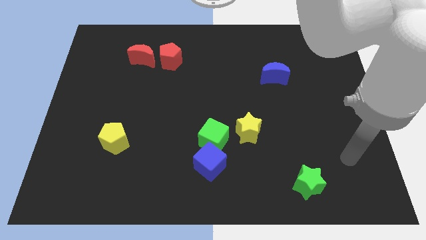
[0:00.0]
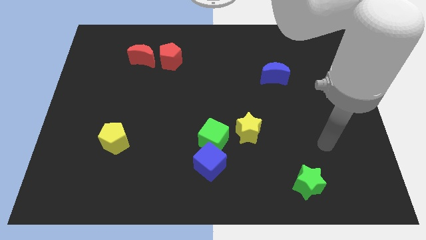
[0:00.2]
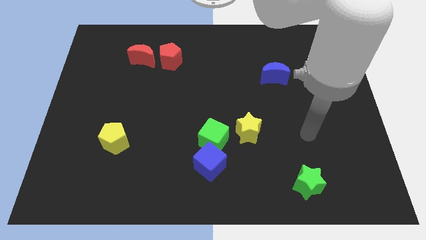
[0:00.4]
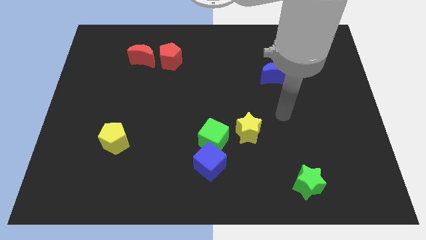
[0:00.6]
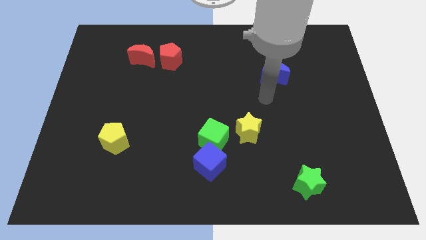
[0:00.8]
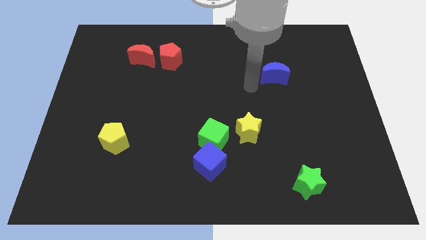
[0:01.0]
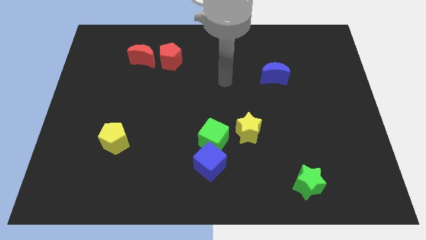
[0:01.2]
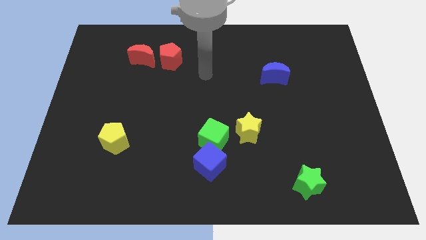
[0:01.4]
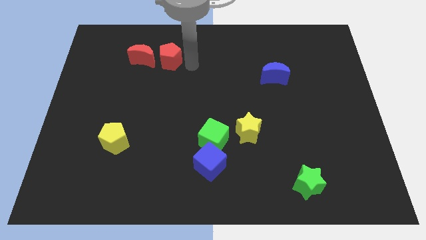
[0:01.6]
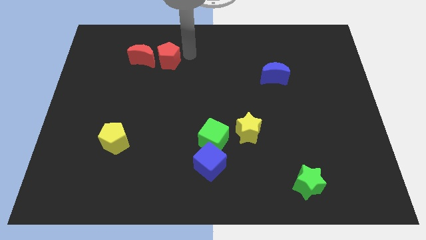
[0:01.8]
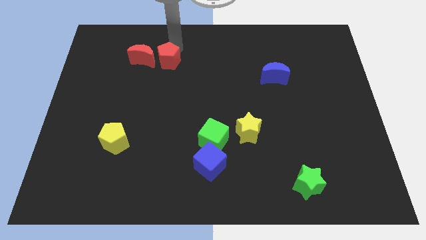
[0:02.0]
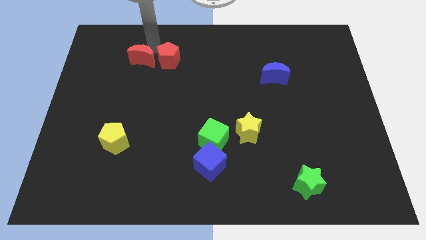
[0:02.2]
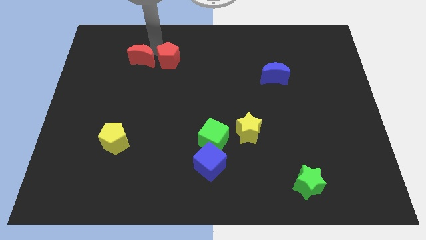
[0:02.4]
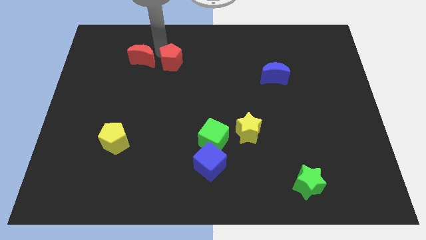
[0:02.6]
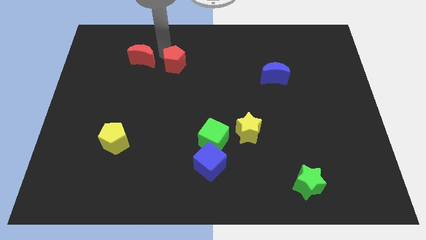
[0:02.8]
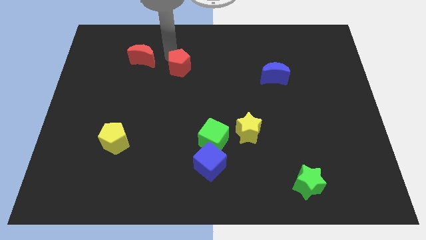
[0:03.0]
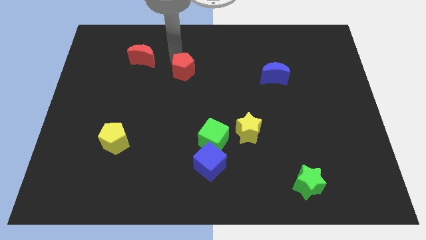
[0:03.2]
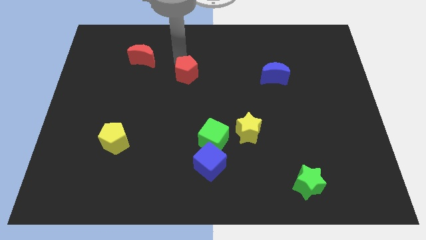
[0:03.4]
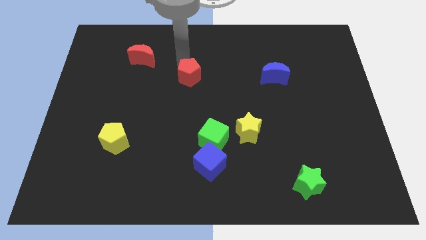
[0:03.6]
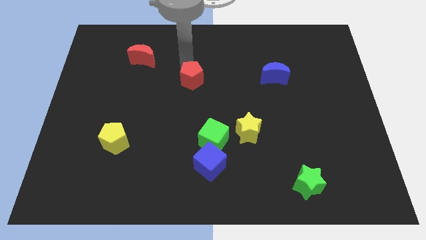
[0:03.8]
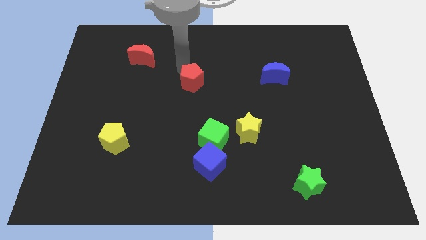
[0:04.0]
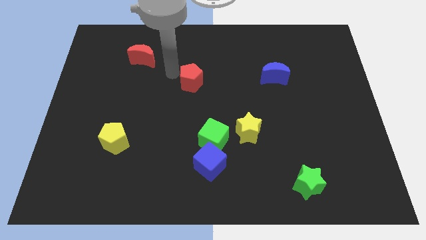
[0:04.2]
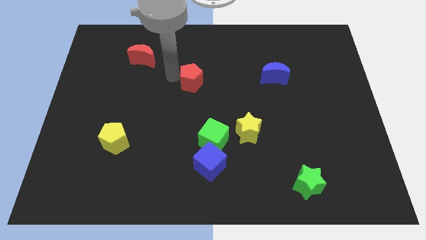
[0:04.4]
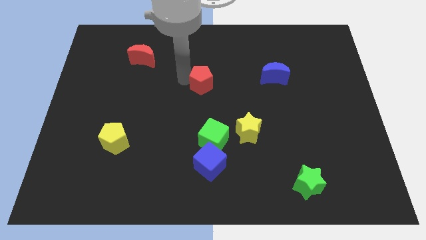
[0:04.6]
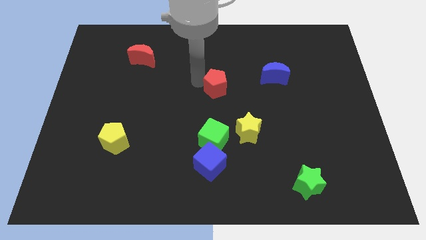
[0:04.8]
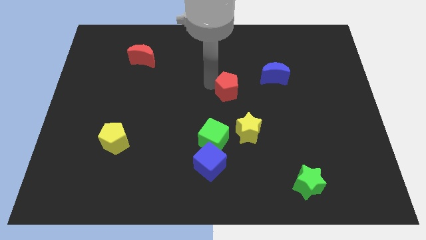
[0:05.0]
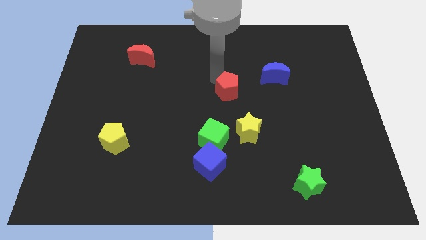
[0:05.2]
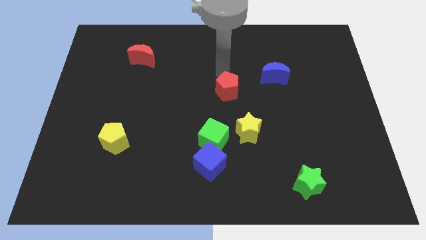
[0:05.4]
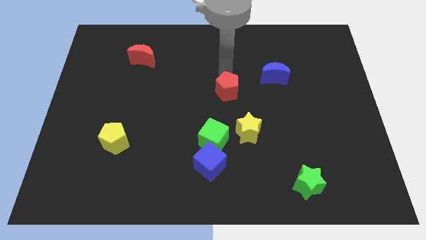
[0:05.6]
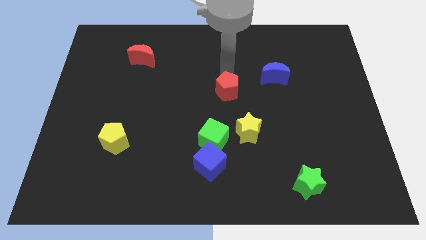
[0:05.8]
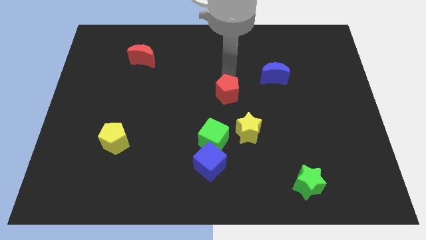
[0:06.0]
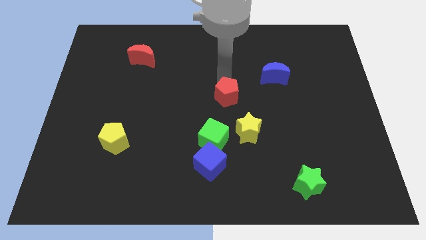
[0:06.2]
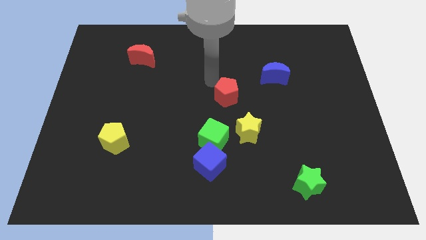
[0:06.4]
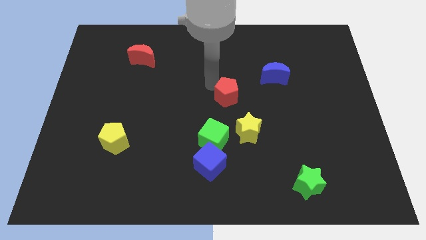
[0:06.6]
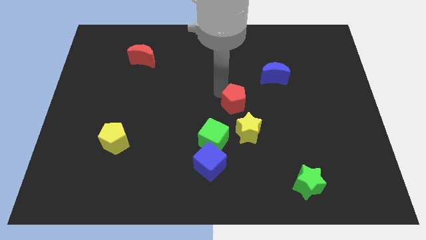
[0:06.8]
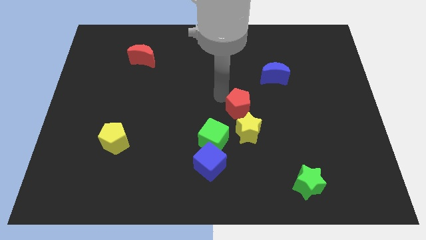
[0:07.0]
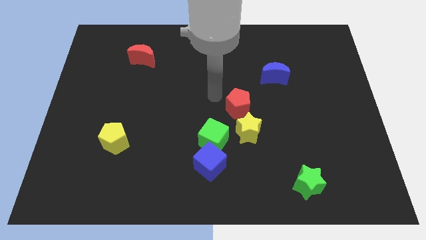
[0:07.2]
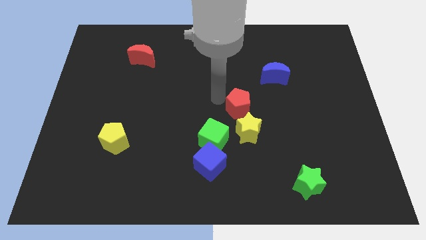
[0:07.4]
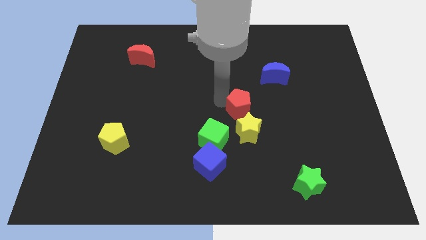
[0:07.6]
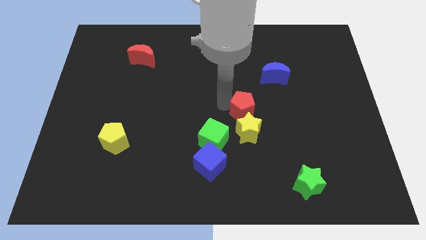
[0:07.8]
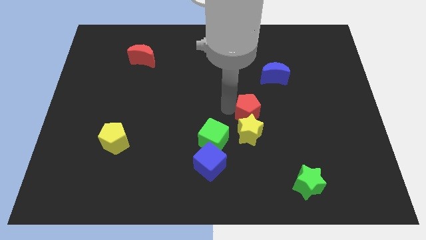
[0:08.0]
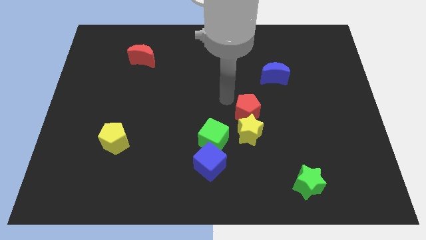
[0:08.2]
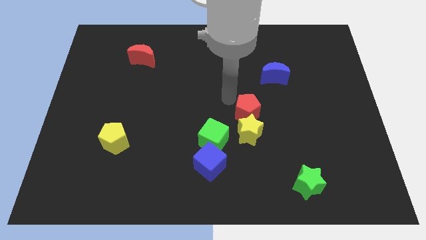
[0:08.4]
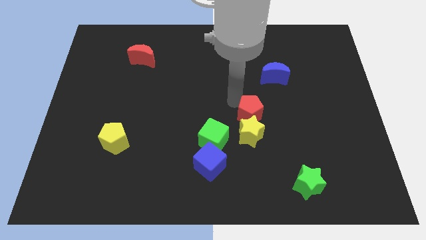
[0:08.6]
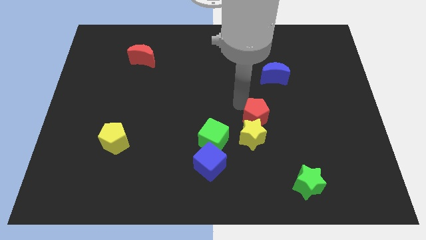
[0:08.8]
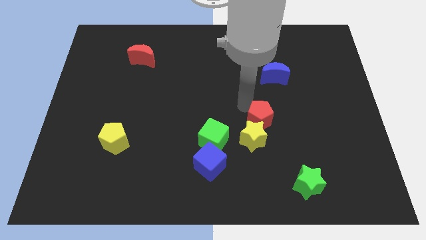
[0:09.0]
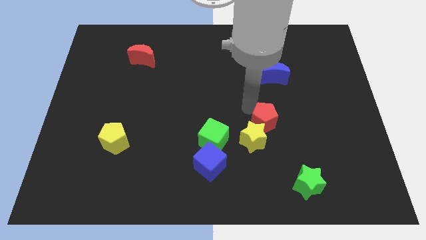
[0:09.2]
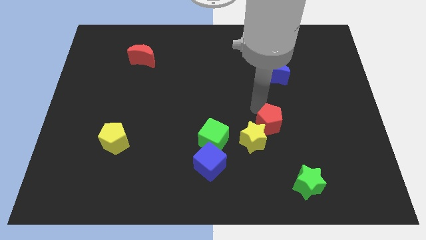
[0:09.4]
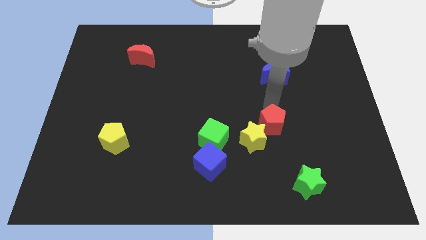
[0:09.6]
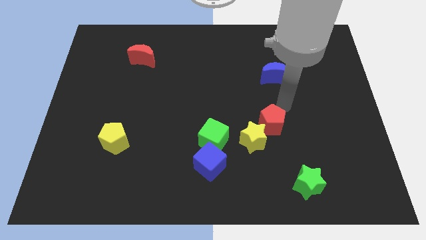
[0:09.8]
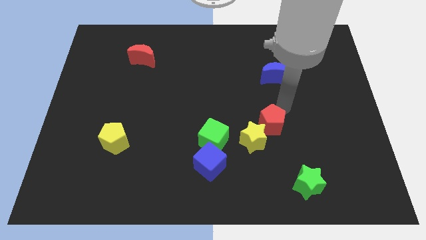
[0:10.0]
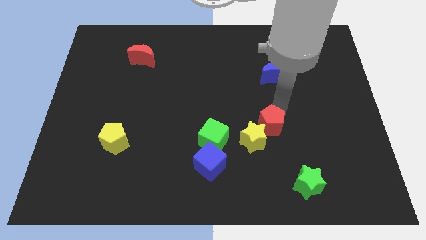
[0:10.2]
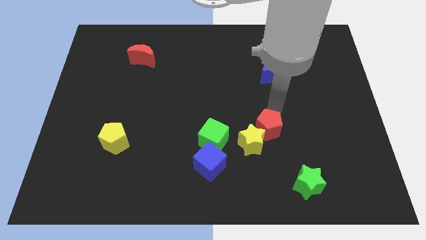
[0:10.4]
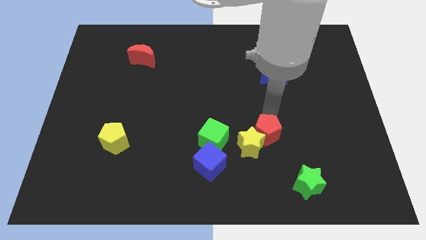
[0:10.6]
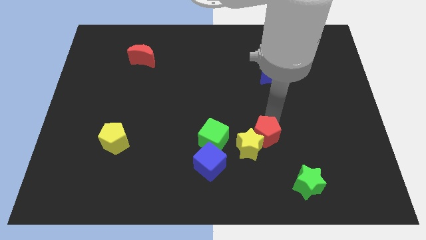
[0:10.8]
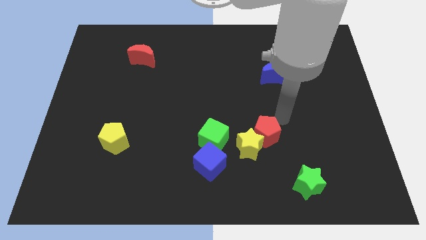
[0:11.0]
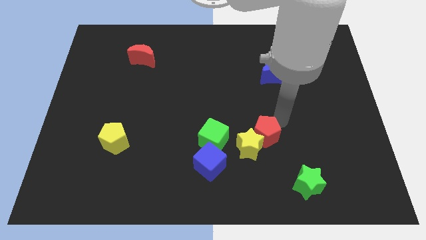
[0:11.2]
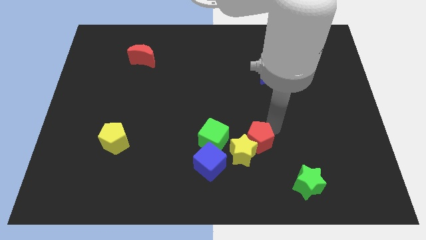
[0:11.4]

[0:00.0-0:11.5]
put the red pentagon diagonally up and to the right of the blue cube

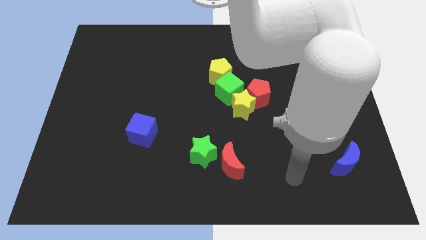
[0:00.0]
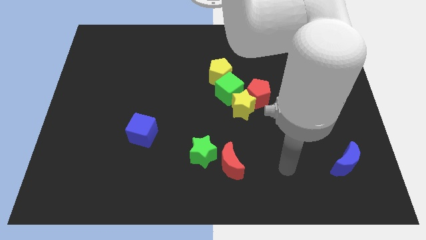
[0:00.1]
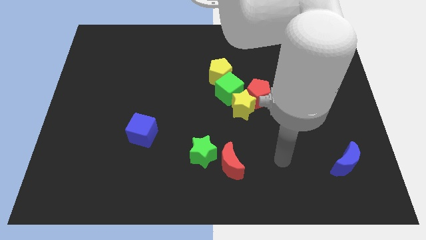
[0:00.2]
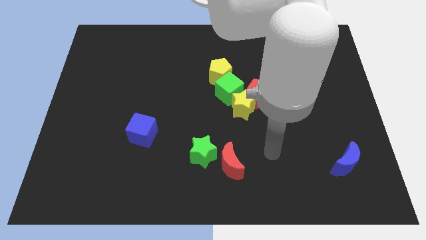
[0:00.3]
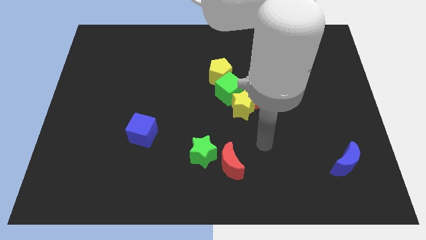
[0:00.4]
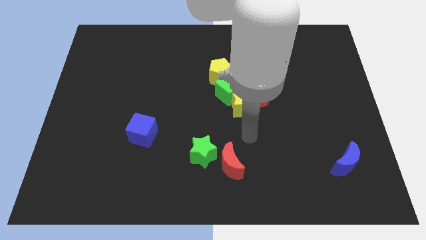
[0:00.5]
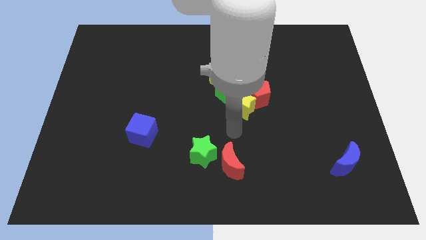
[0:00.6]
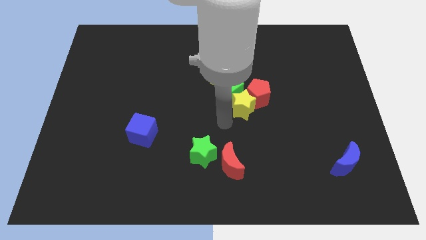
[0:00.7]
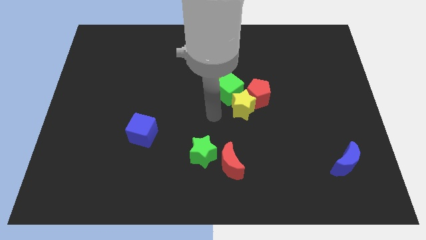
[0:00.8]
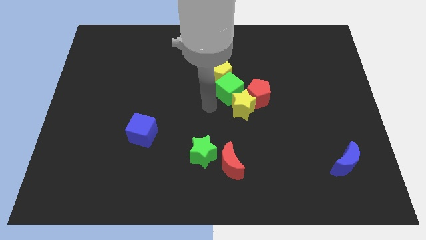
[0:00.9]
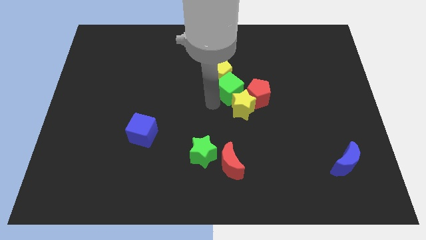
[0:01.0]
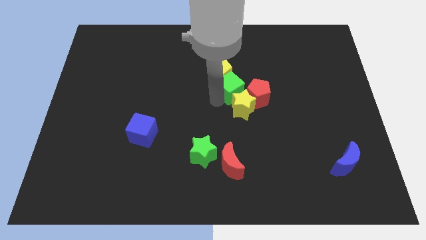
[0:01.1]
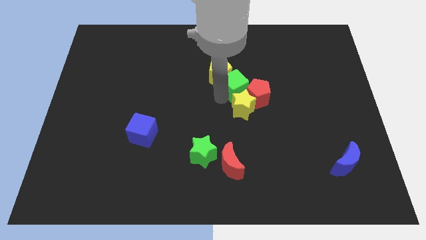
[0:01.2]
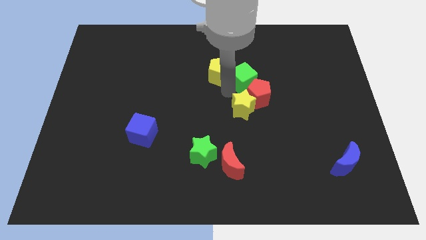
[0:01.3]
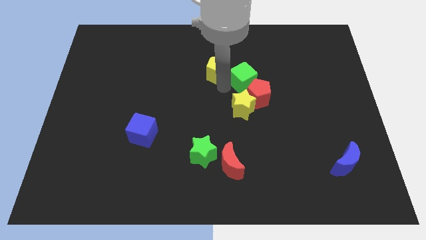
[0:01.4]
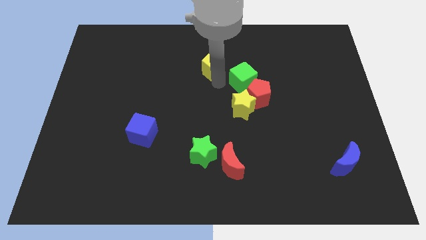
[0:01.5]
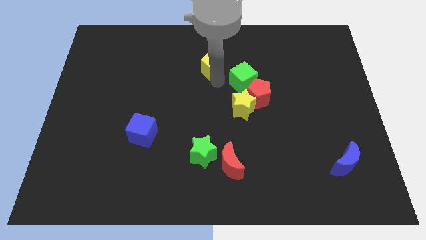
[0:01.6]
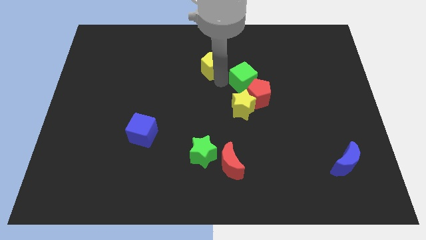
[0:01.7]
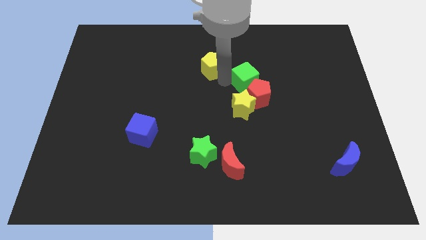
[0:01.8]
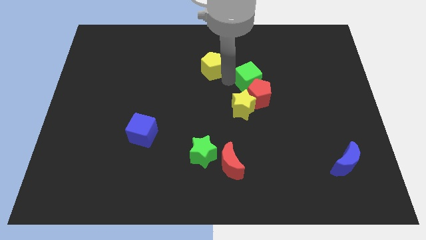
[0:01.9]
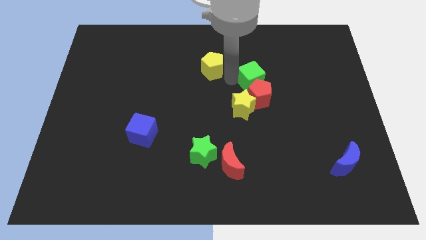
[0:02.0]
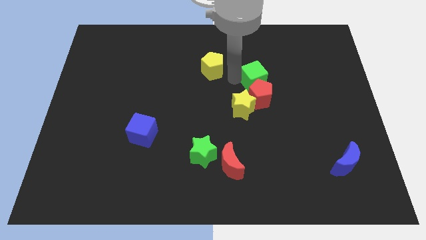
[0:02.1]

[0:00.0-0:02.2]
move the green cube diagonally up and to the right of the red pentagon
